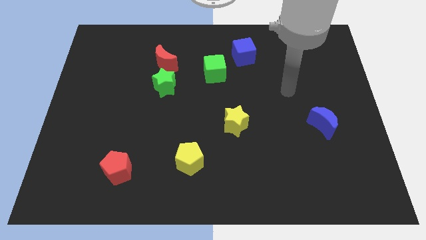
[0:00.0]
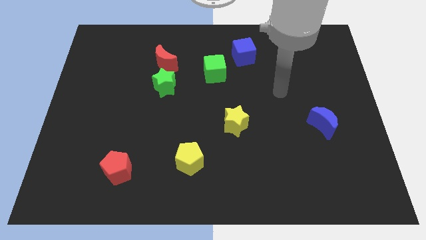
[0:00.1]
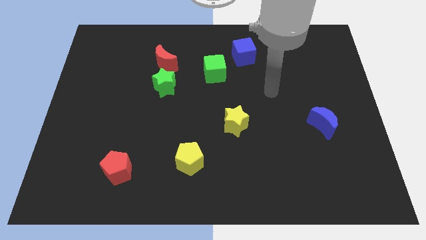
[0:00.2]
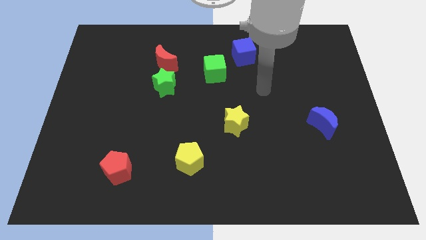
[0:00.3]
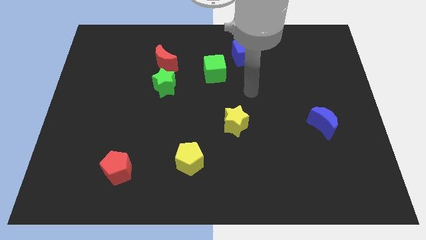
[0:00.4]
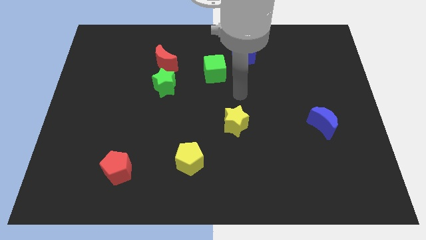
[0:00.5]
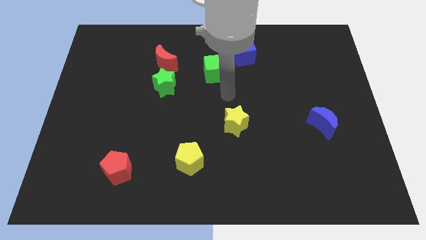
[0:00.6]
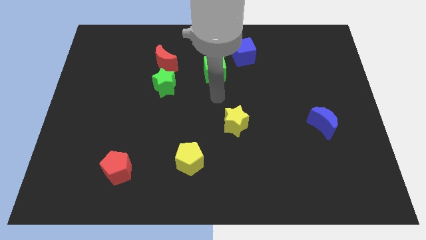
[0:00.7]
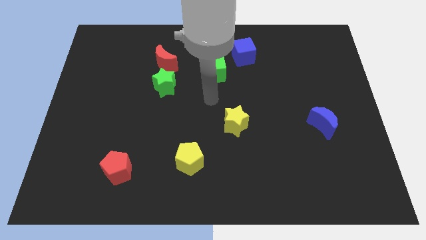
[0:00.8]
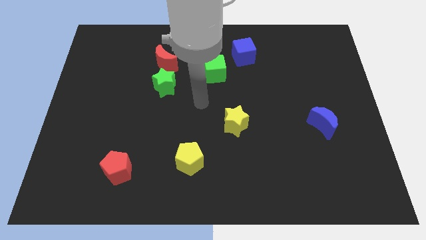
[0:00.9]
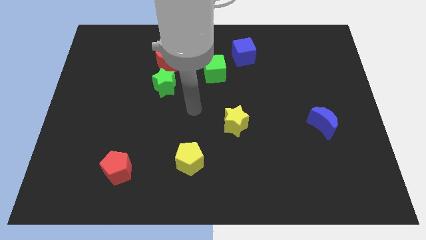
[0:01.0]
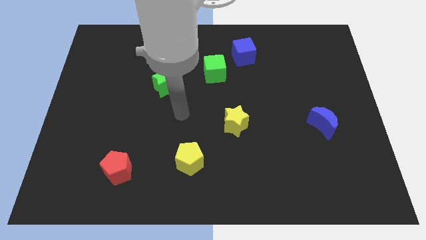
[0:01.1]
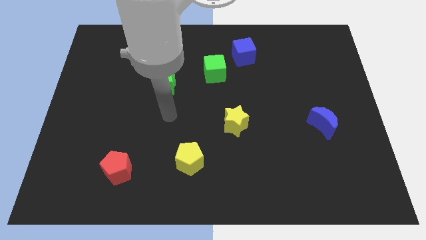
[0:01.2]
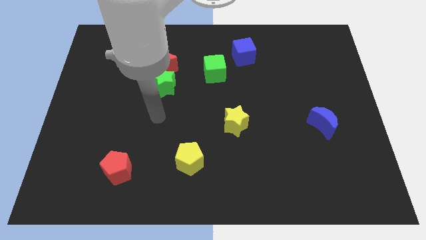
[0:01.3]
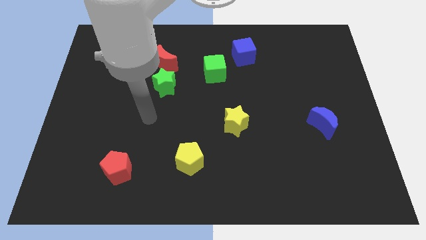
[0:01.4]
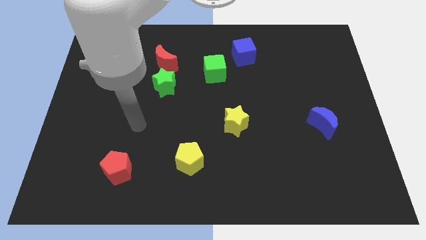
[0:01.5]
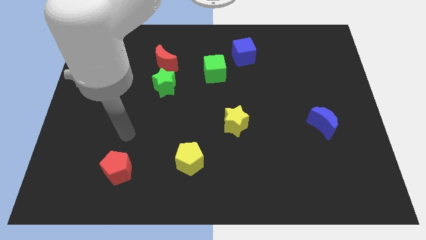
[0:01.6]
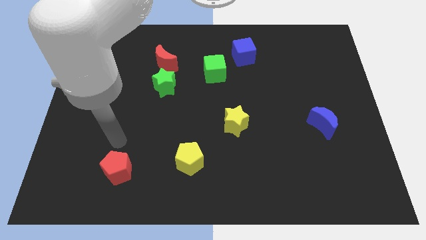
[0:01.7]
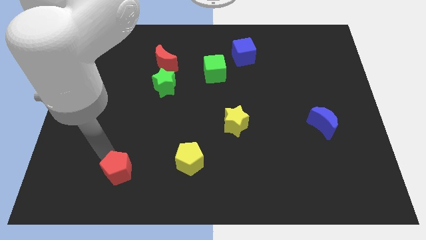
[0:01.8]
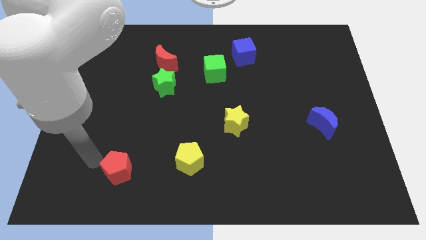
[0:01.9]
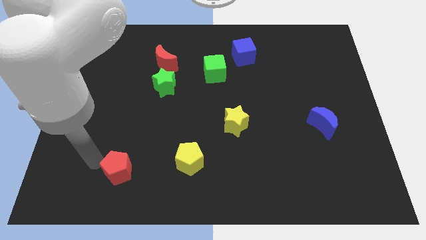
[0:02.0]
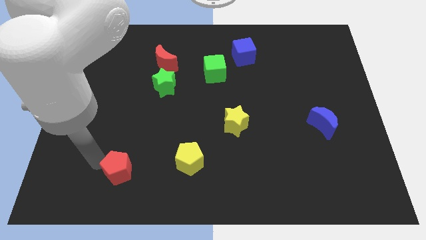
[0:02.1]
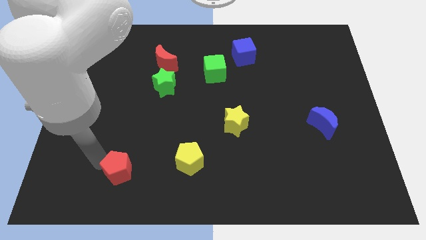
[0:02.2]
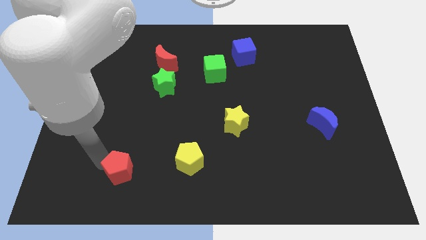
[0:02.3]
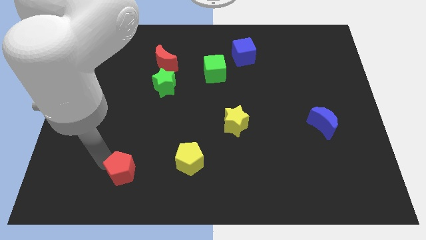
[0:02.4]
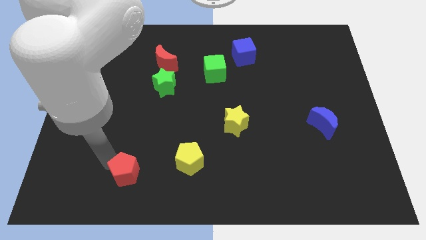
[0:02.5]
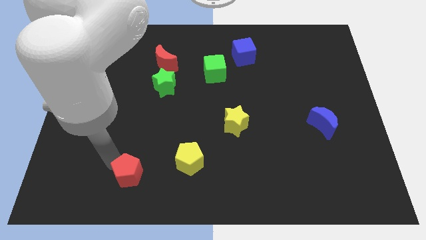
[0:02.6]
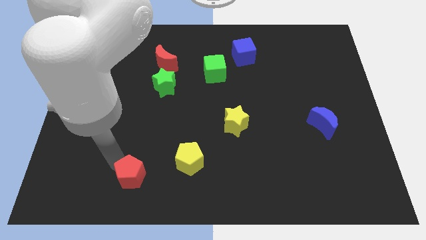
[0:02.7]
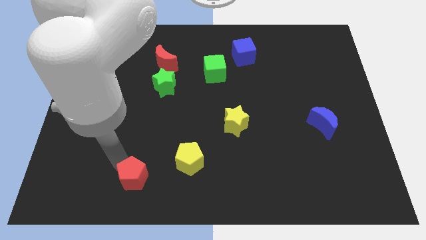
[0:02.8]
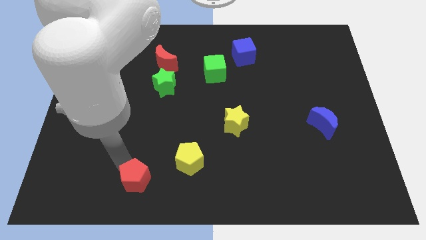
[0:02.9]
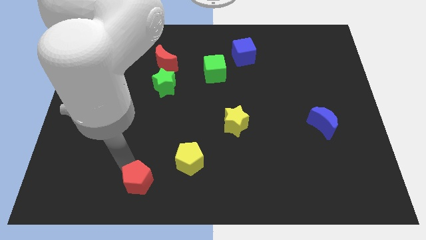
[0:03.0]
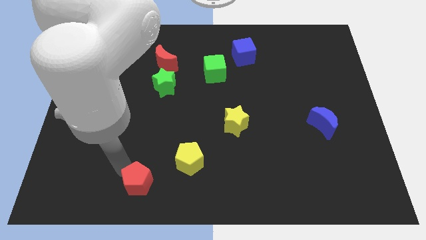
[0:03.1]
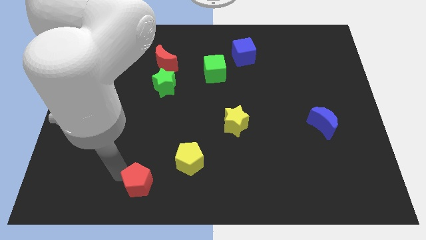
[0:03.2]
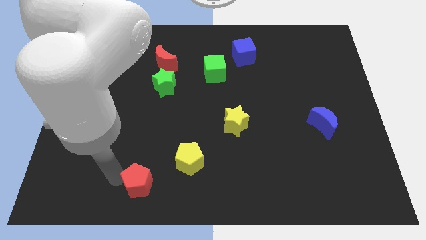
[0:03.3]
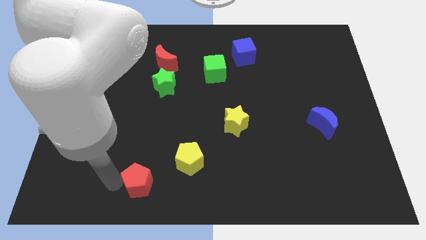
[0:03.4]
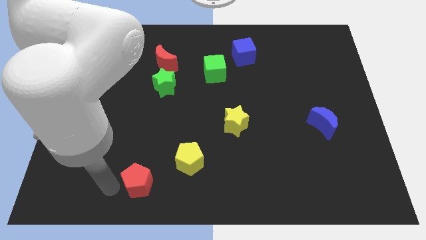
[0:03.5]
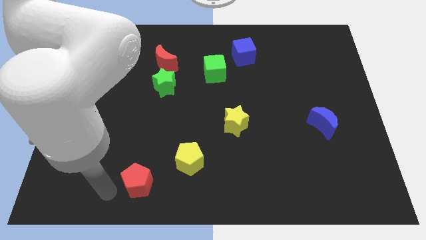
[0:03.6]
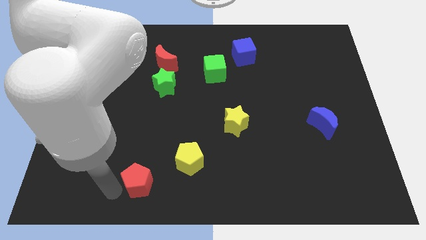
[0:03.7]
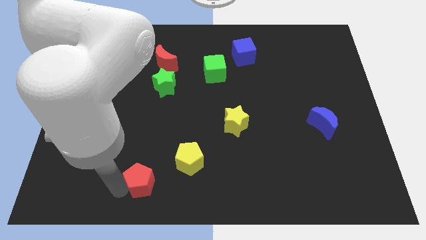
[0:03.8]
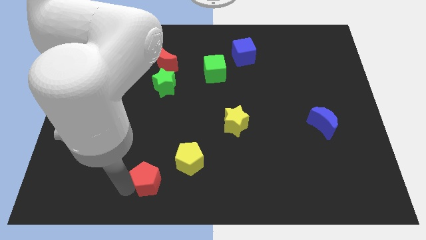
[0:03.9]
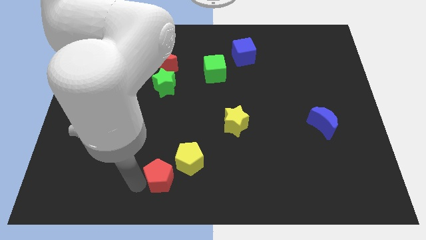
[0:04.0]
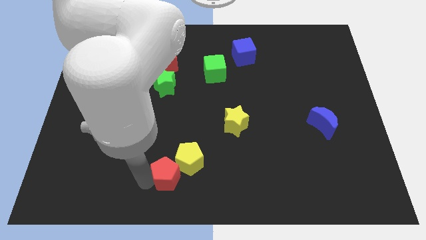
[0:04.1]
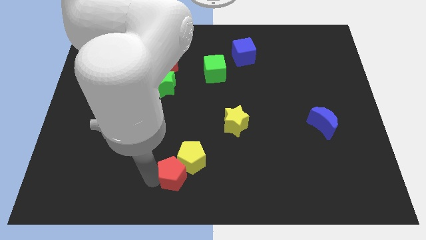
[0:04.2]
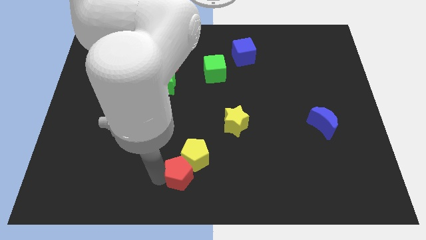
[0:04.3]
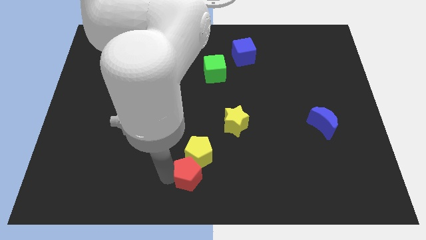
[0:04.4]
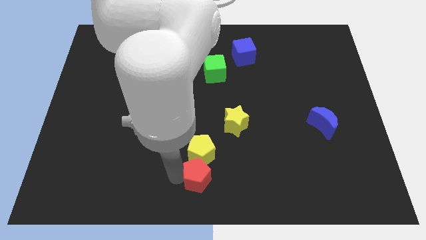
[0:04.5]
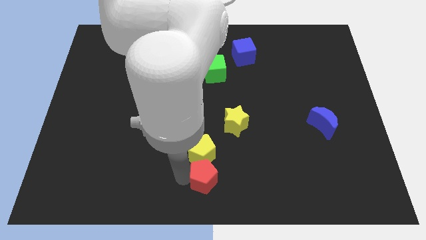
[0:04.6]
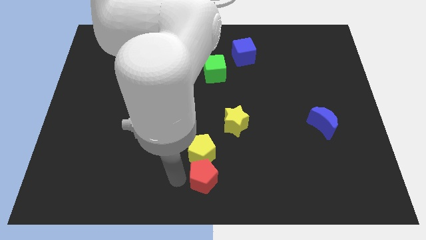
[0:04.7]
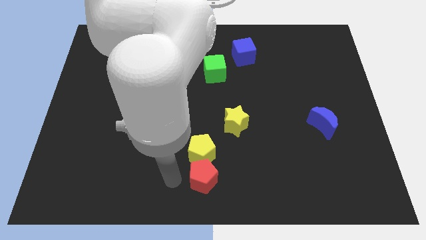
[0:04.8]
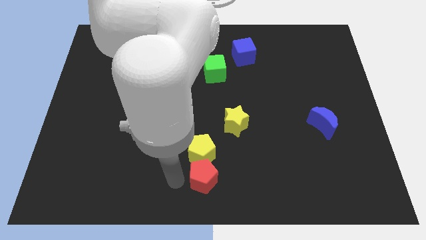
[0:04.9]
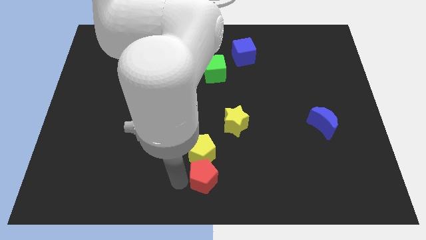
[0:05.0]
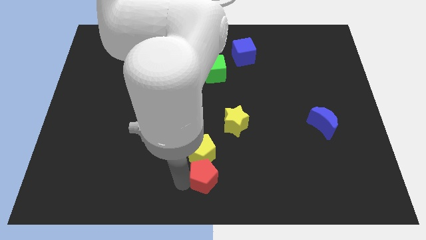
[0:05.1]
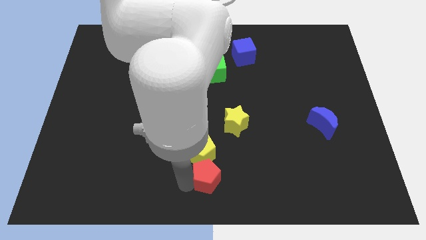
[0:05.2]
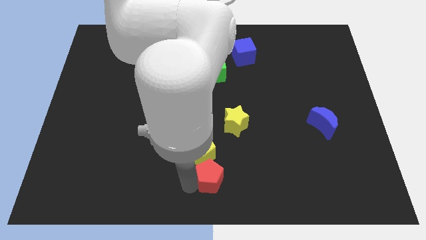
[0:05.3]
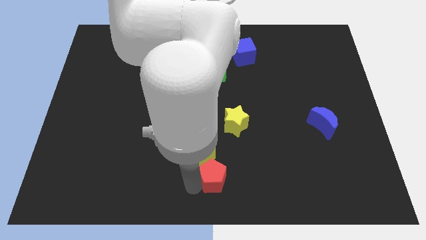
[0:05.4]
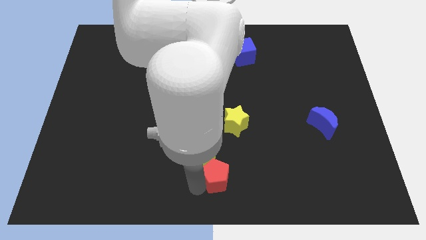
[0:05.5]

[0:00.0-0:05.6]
push the red pentagon to the right

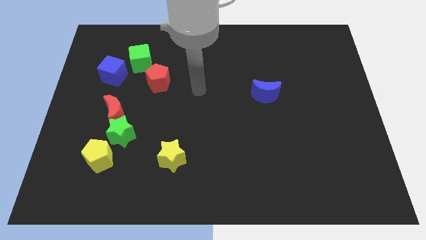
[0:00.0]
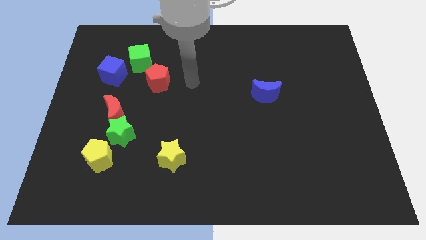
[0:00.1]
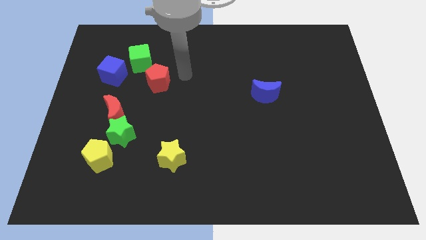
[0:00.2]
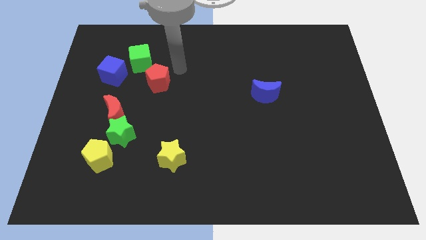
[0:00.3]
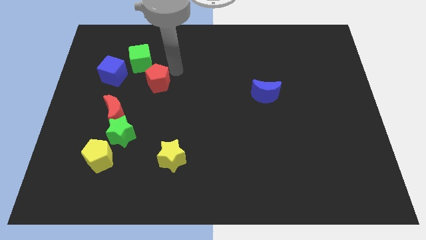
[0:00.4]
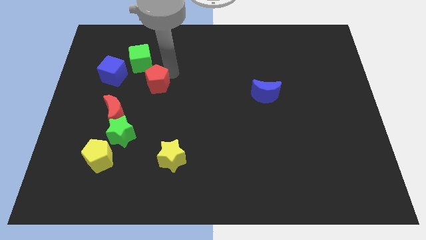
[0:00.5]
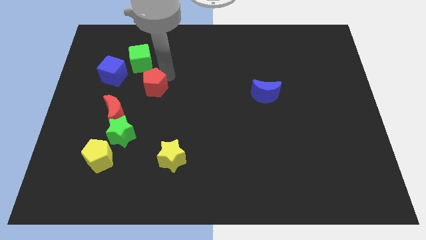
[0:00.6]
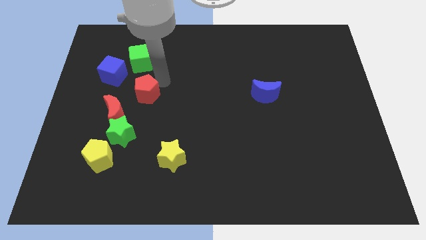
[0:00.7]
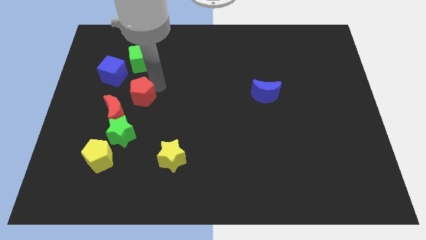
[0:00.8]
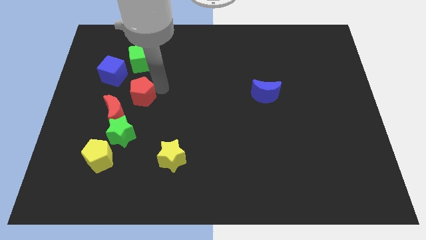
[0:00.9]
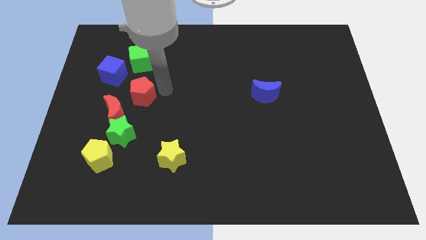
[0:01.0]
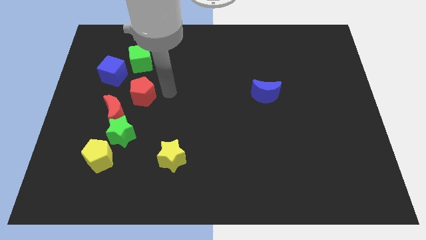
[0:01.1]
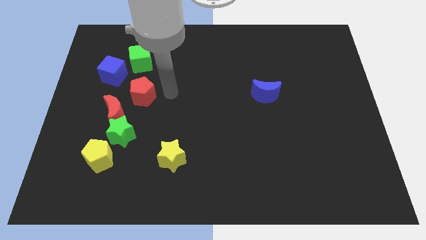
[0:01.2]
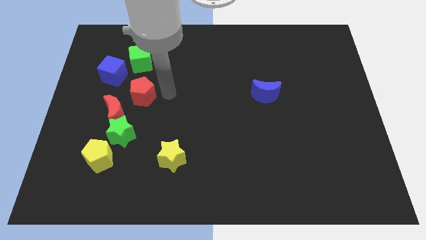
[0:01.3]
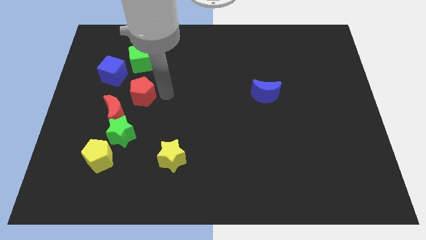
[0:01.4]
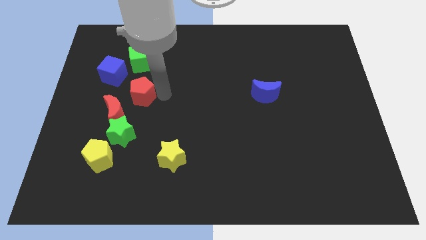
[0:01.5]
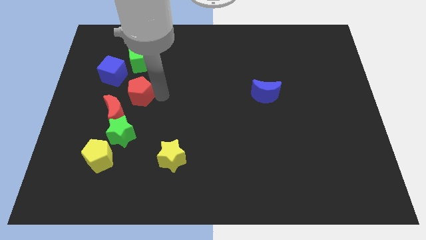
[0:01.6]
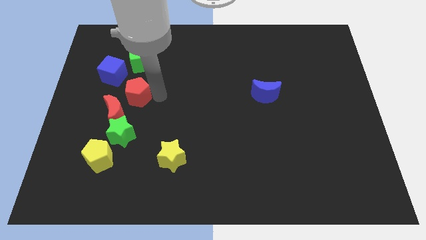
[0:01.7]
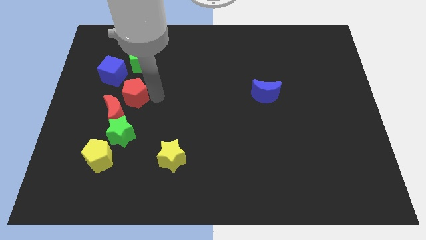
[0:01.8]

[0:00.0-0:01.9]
slightly push the red pentagon down and to the left

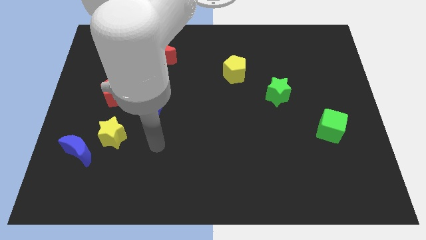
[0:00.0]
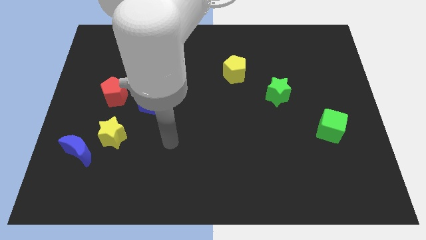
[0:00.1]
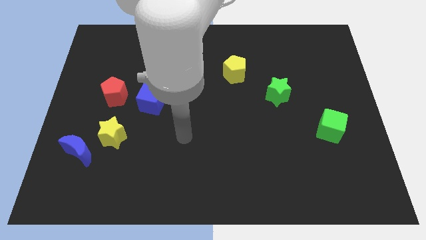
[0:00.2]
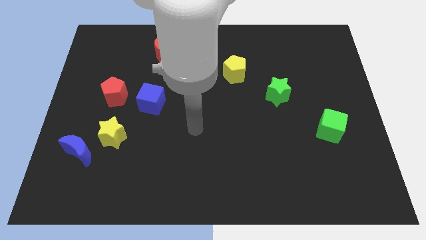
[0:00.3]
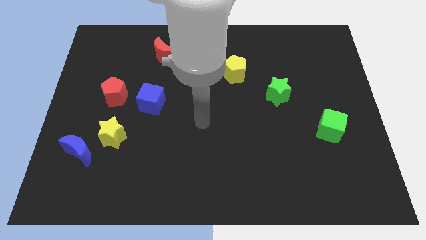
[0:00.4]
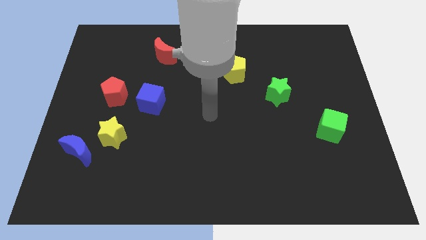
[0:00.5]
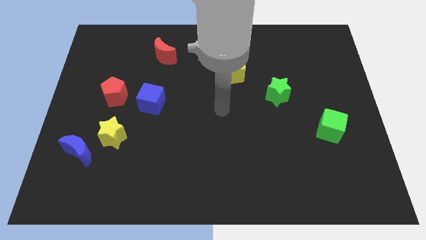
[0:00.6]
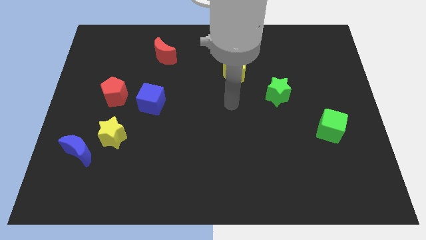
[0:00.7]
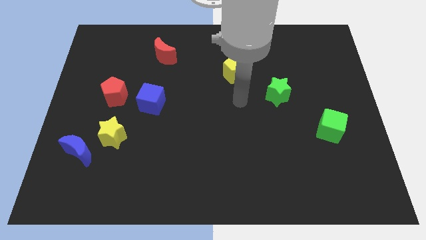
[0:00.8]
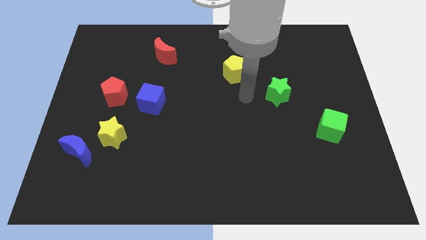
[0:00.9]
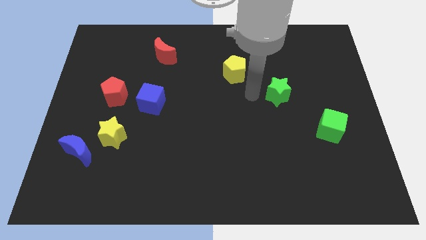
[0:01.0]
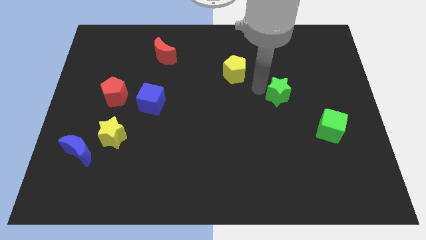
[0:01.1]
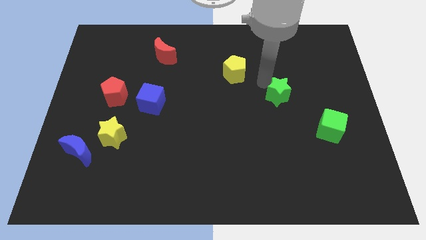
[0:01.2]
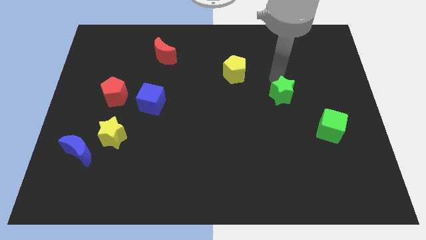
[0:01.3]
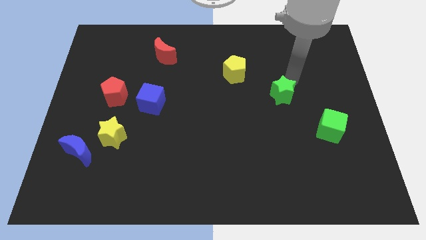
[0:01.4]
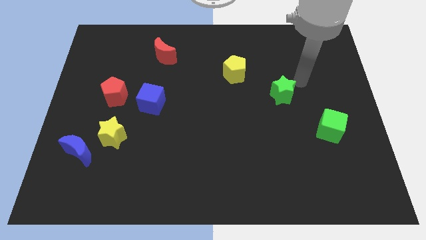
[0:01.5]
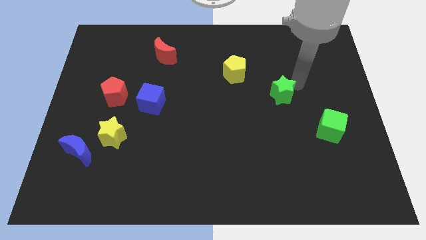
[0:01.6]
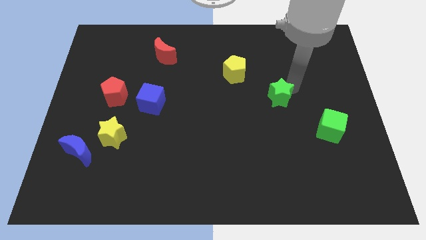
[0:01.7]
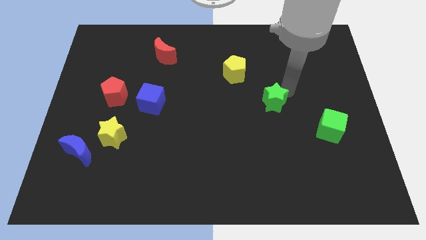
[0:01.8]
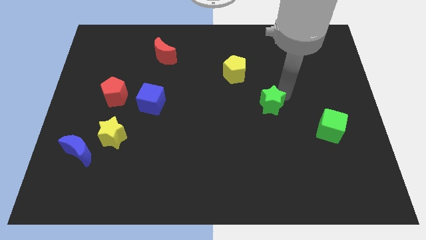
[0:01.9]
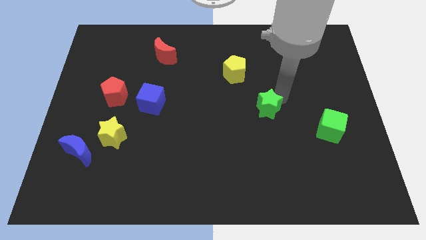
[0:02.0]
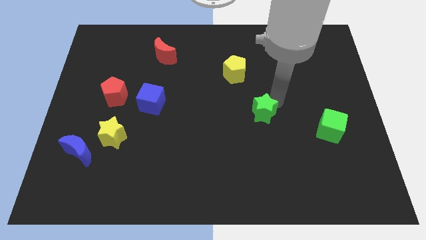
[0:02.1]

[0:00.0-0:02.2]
move the green star downwards and to the left diagonally a little
